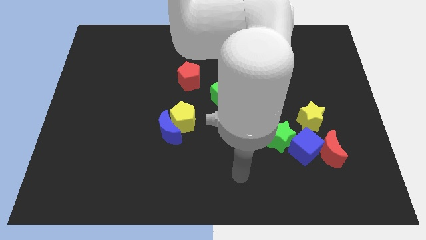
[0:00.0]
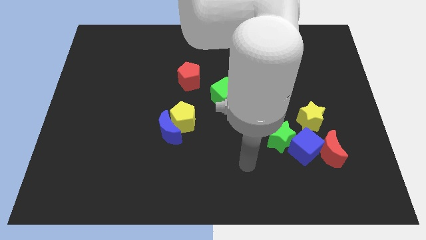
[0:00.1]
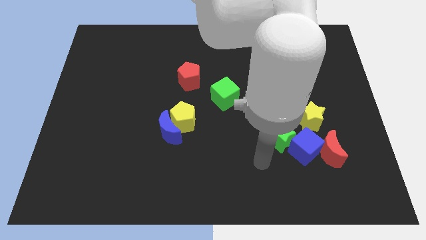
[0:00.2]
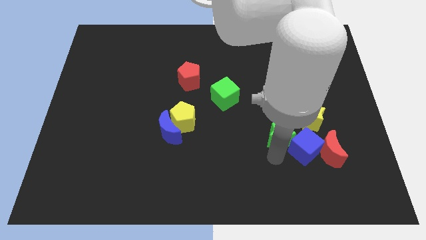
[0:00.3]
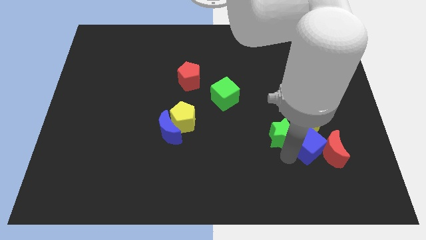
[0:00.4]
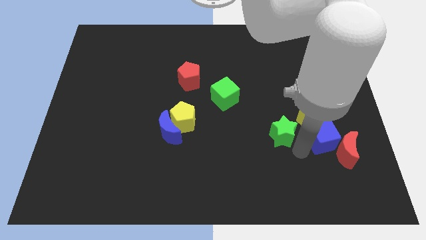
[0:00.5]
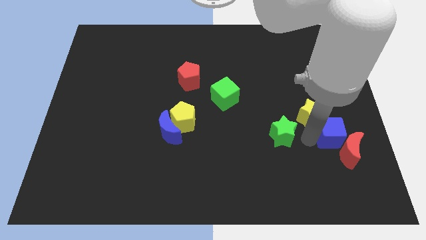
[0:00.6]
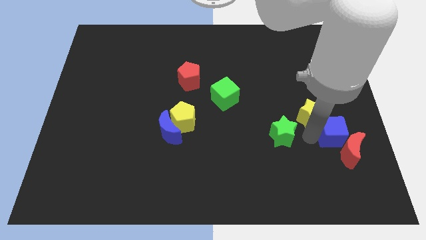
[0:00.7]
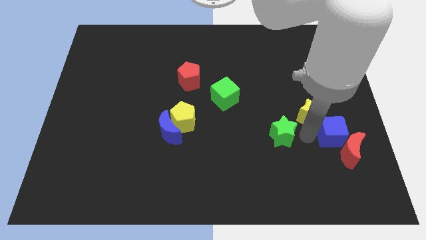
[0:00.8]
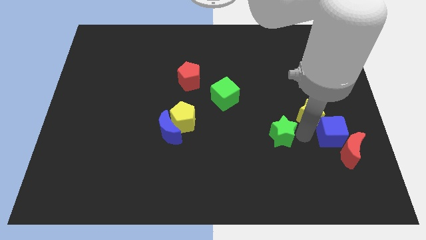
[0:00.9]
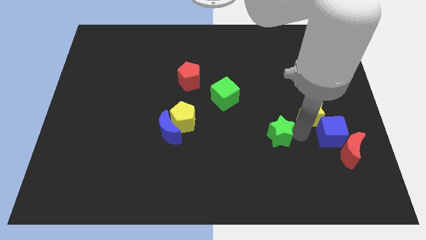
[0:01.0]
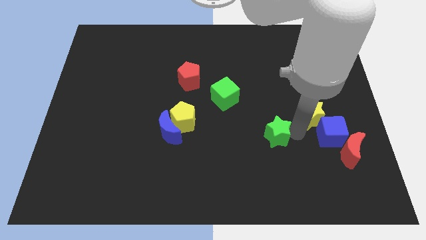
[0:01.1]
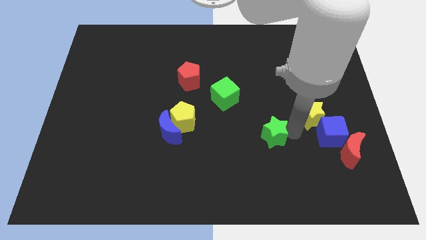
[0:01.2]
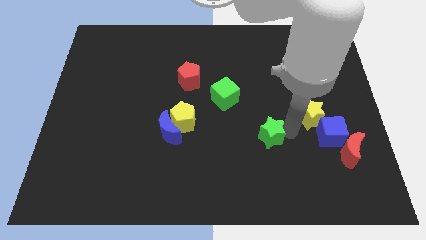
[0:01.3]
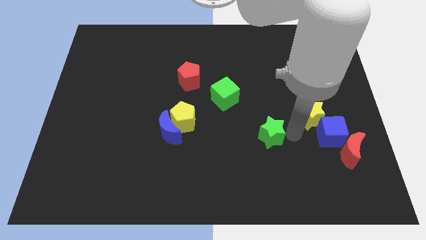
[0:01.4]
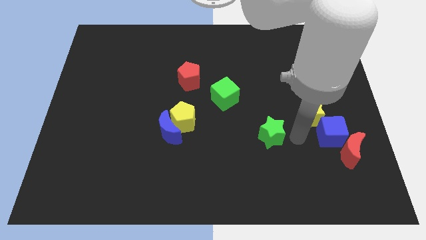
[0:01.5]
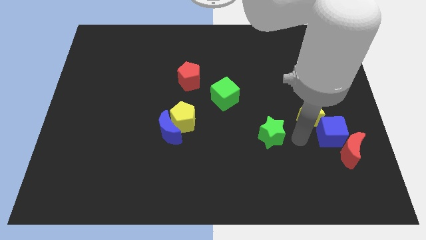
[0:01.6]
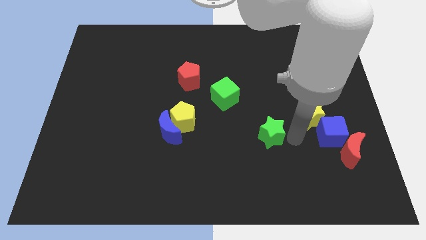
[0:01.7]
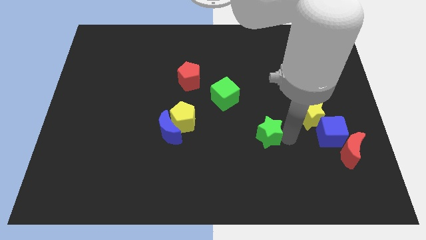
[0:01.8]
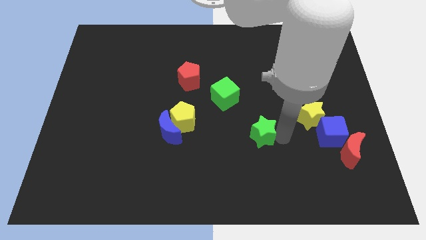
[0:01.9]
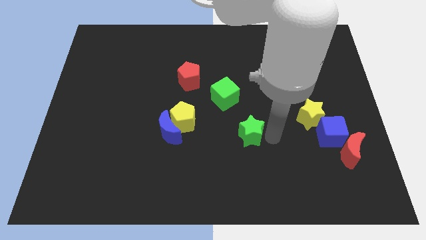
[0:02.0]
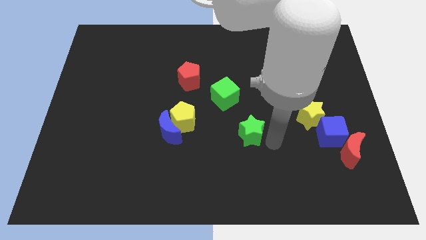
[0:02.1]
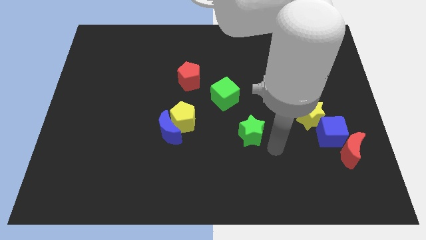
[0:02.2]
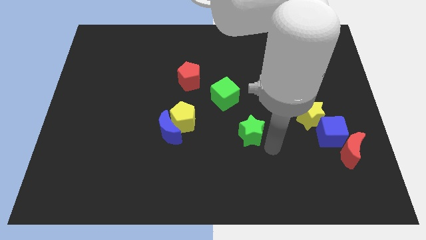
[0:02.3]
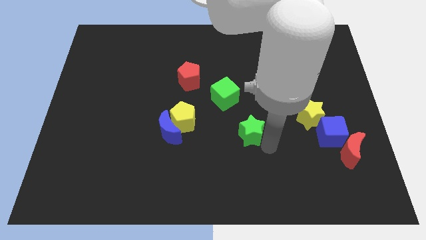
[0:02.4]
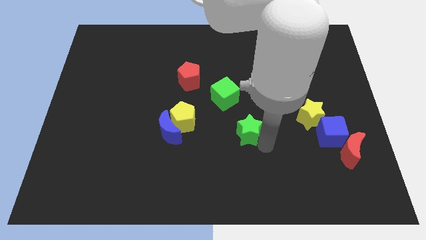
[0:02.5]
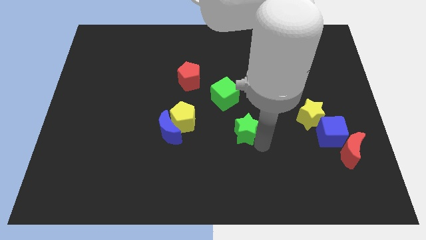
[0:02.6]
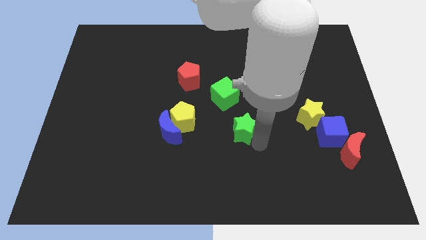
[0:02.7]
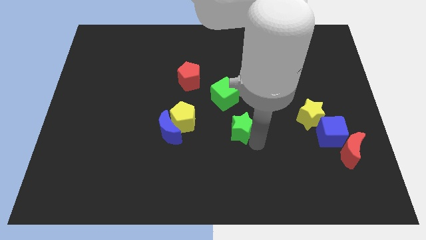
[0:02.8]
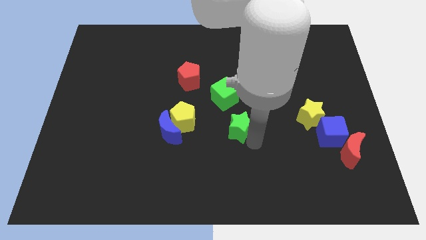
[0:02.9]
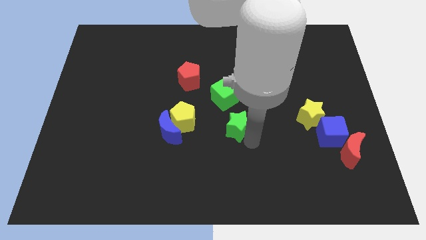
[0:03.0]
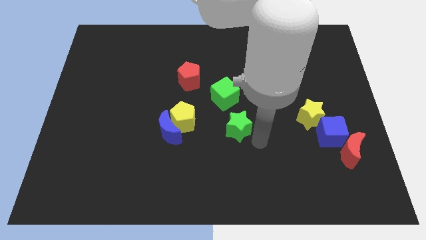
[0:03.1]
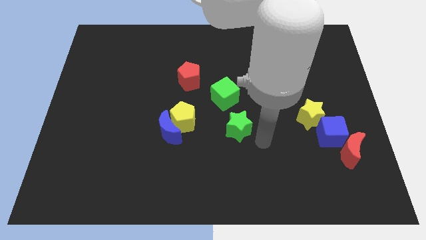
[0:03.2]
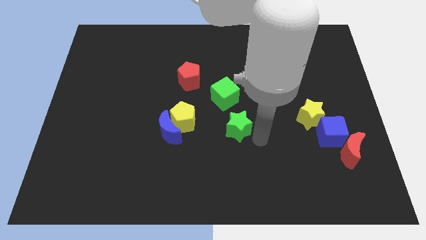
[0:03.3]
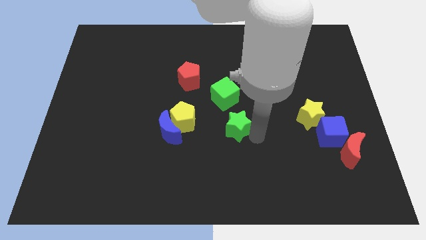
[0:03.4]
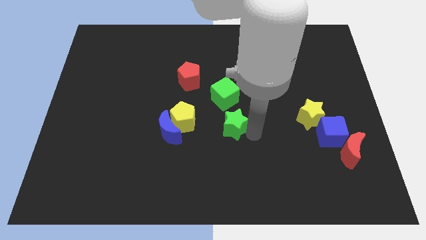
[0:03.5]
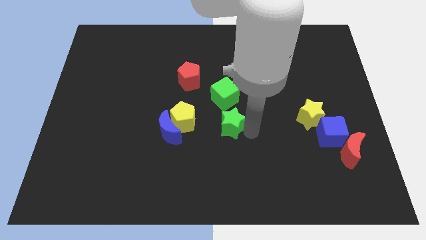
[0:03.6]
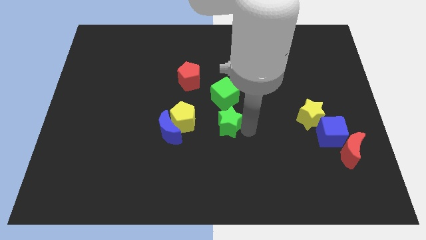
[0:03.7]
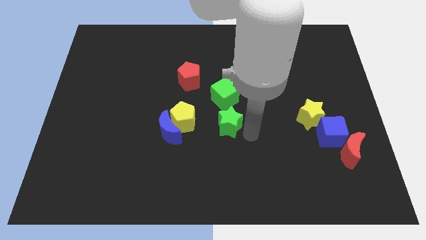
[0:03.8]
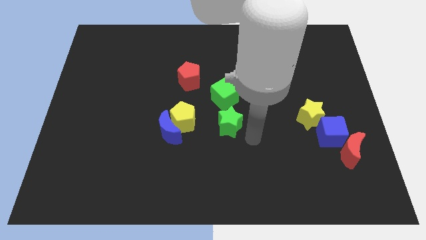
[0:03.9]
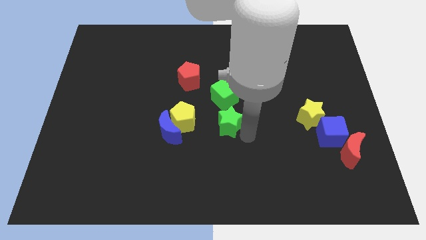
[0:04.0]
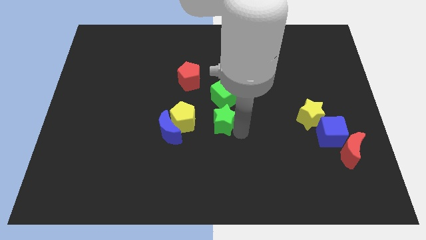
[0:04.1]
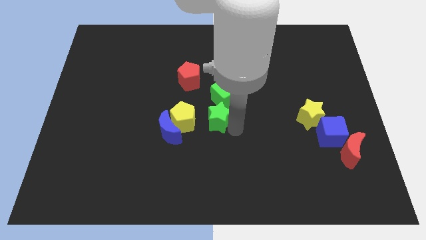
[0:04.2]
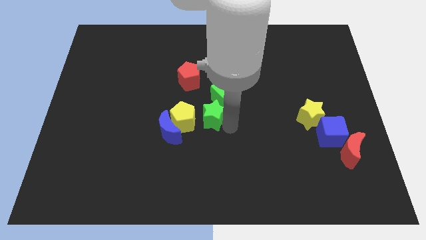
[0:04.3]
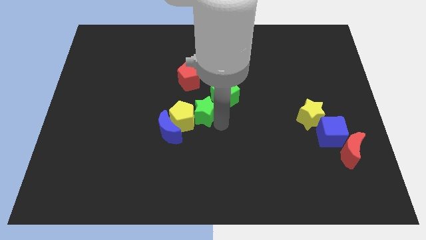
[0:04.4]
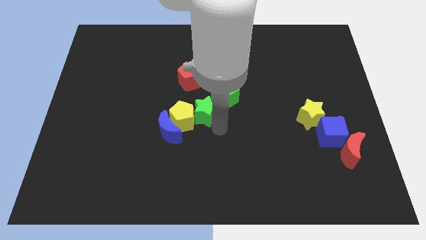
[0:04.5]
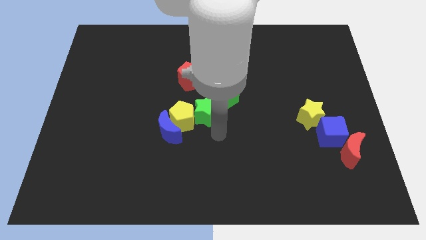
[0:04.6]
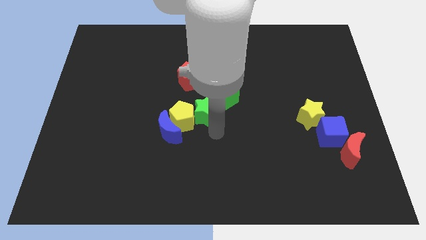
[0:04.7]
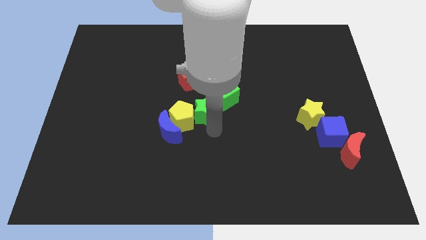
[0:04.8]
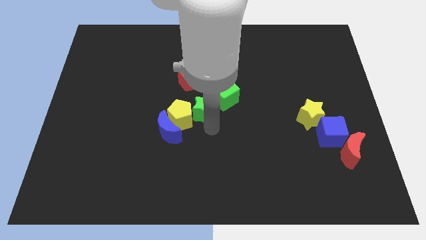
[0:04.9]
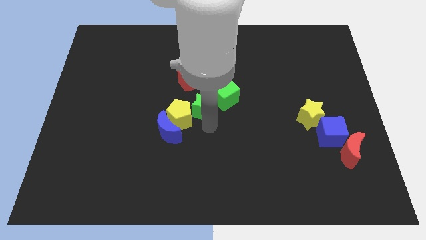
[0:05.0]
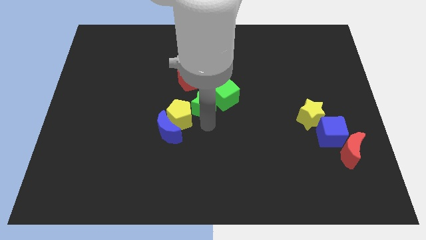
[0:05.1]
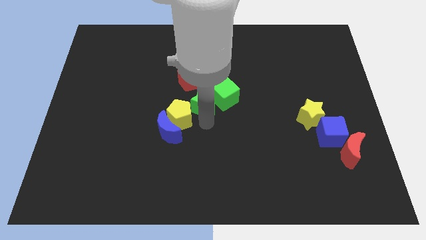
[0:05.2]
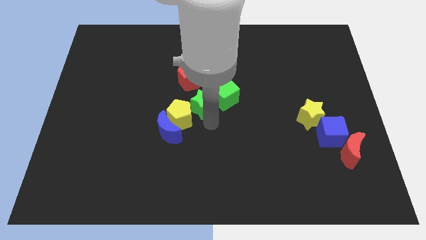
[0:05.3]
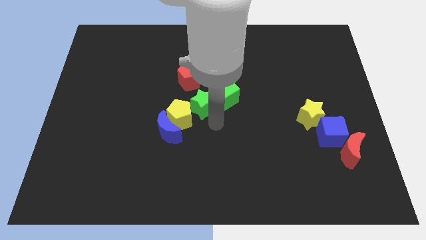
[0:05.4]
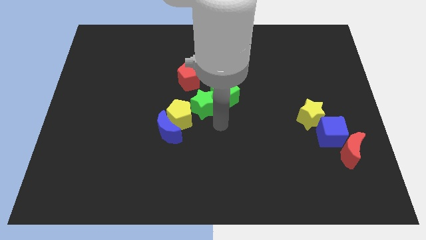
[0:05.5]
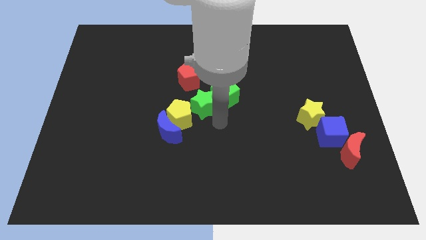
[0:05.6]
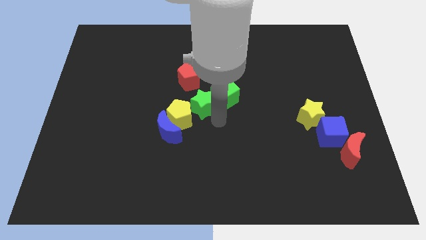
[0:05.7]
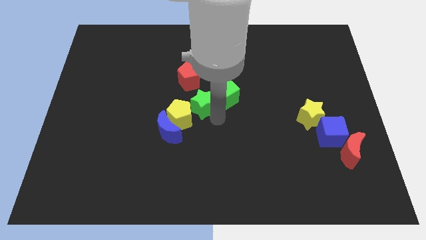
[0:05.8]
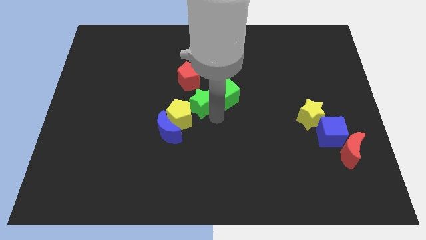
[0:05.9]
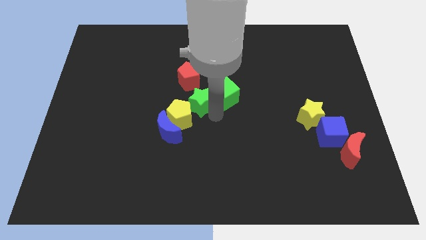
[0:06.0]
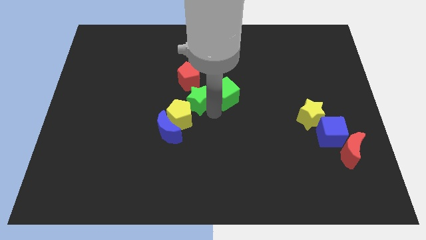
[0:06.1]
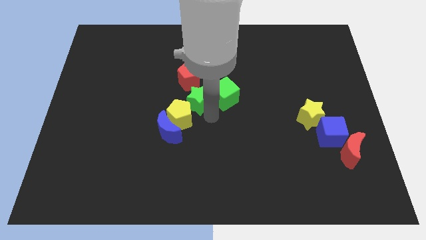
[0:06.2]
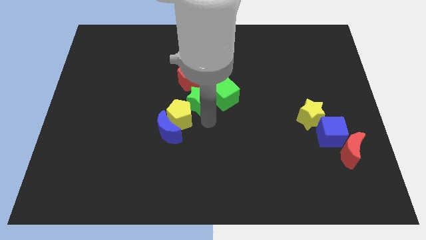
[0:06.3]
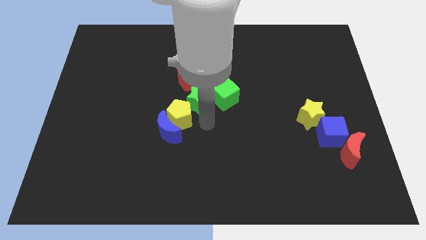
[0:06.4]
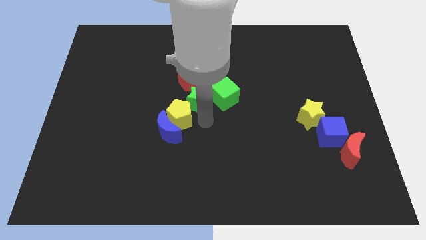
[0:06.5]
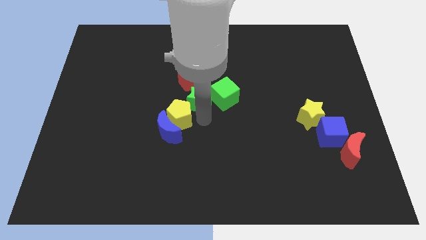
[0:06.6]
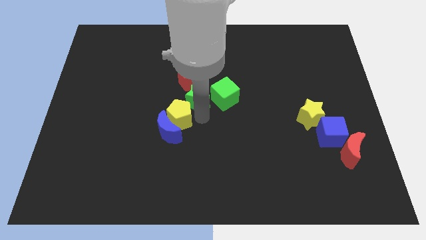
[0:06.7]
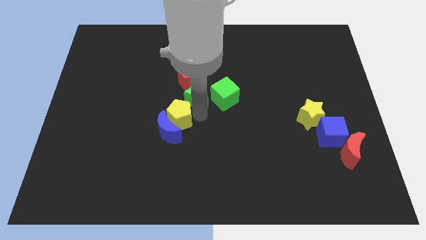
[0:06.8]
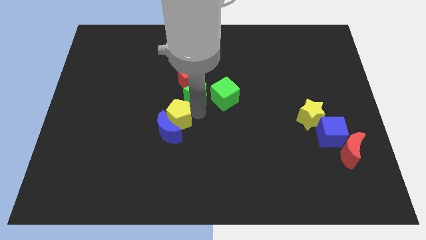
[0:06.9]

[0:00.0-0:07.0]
put the green star close to the red pentagon

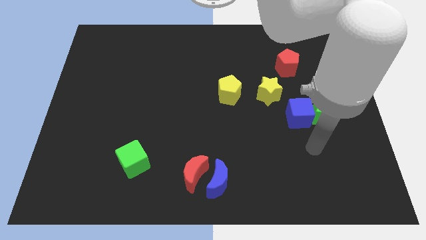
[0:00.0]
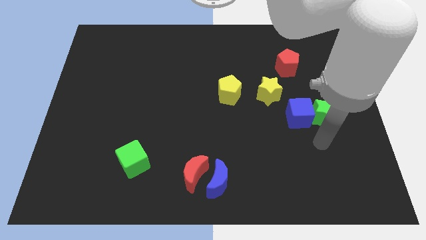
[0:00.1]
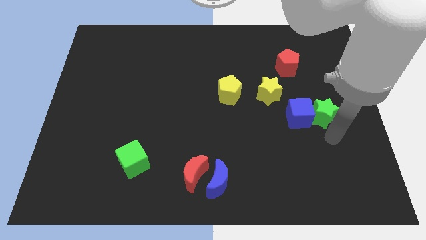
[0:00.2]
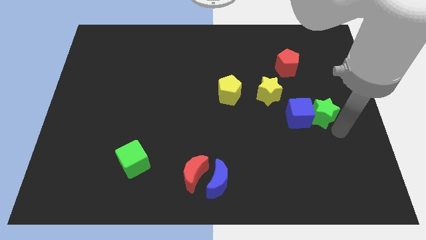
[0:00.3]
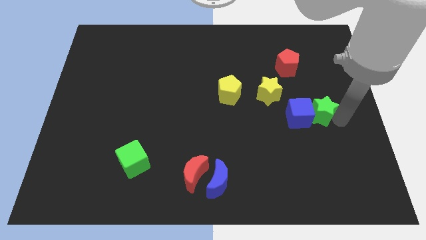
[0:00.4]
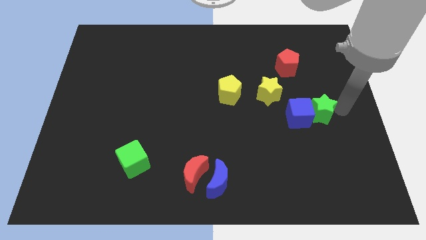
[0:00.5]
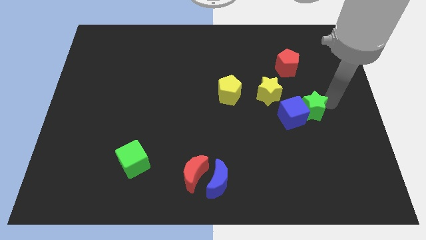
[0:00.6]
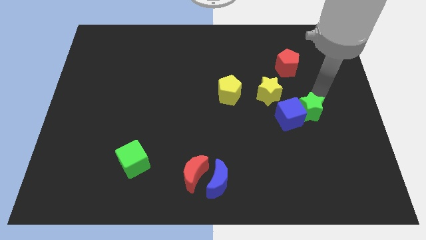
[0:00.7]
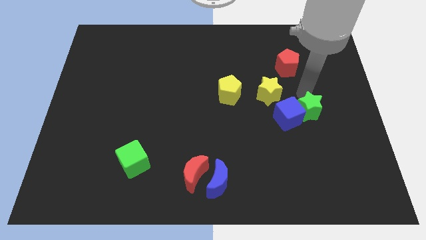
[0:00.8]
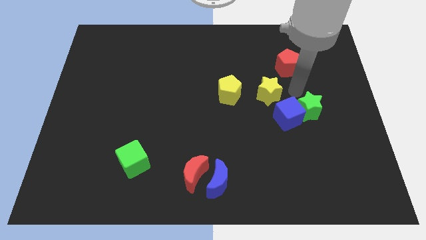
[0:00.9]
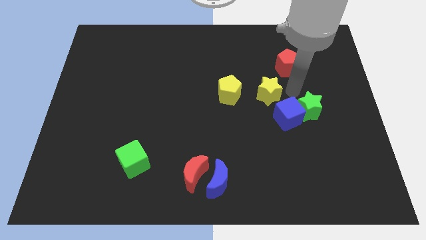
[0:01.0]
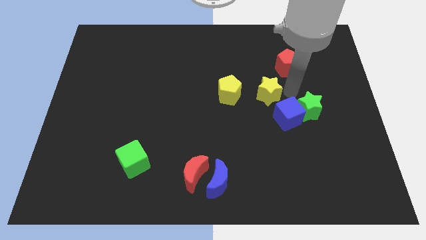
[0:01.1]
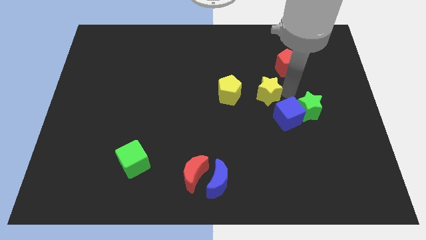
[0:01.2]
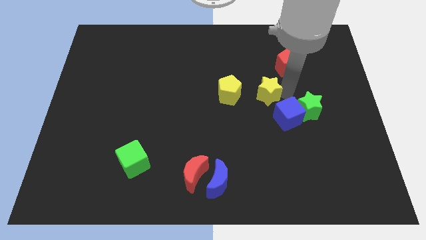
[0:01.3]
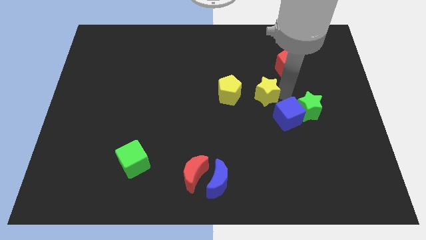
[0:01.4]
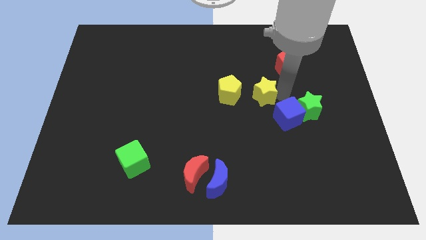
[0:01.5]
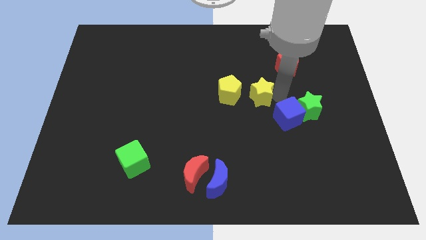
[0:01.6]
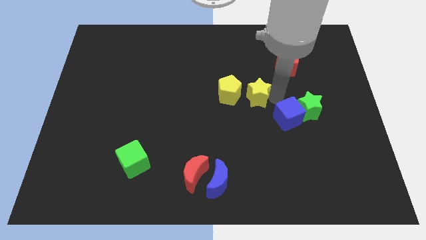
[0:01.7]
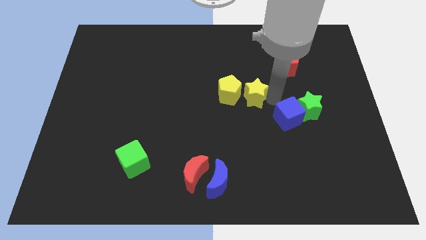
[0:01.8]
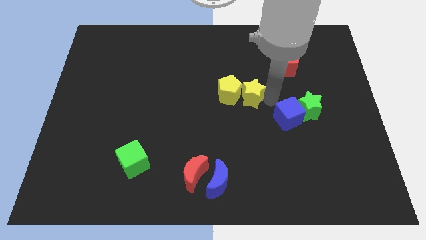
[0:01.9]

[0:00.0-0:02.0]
slide the yellow star towards the yellow pentagon
